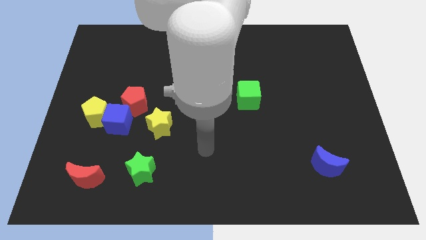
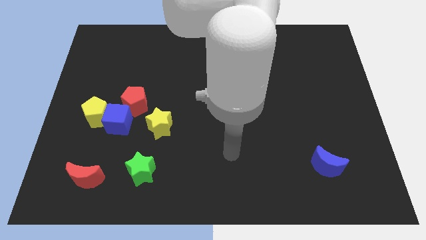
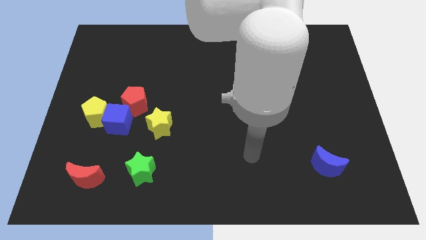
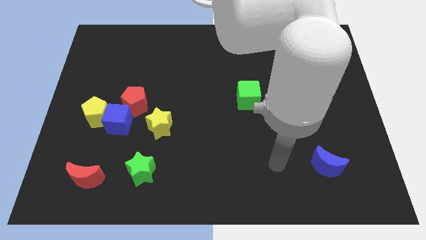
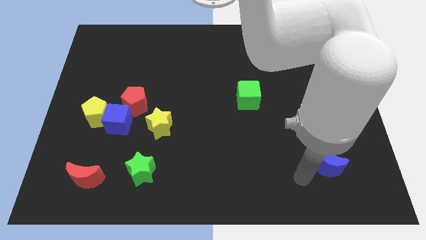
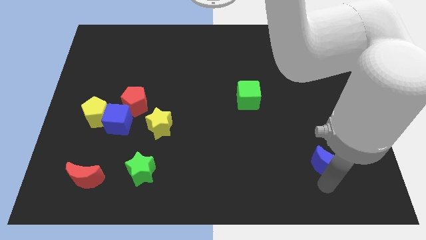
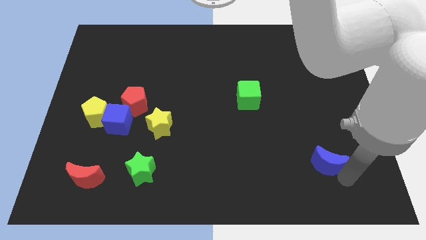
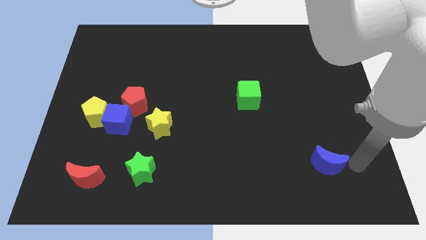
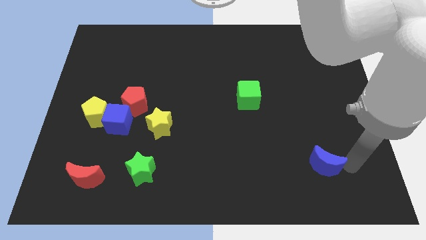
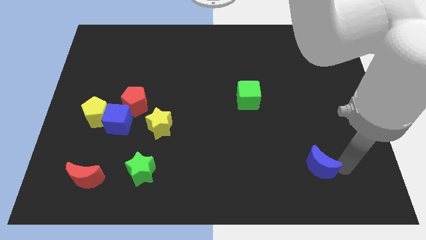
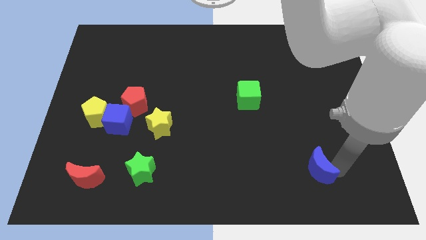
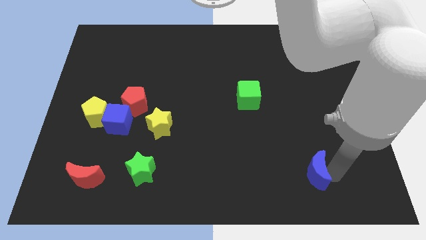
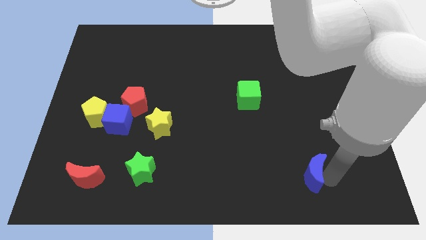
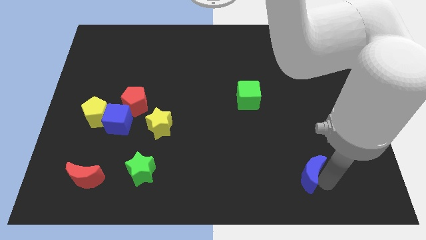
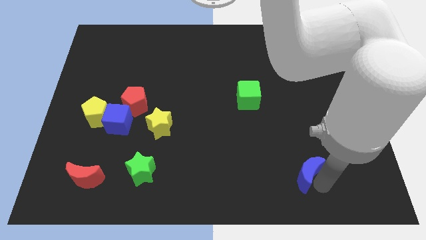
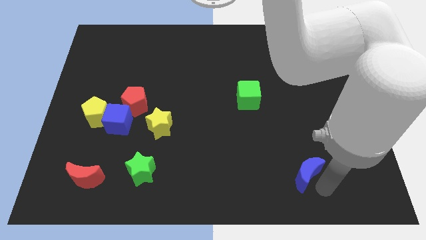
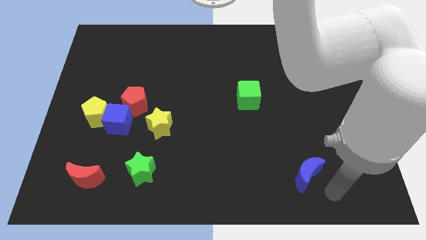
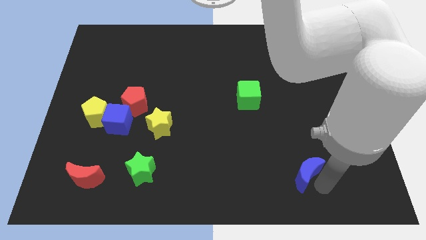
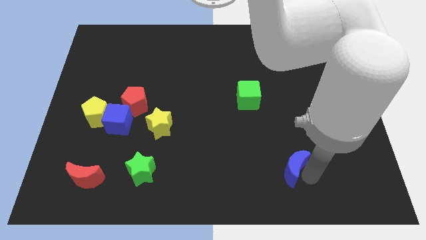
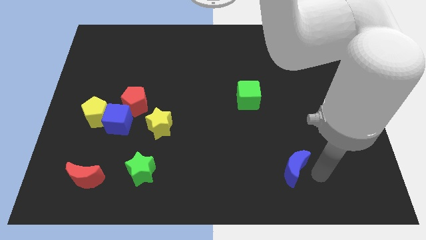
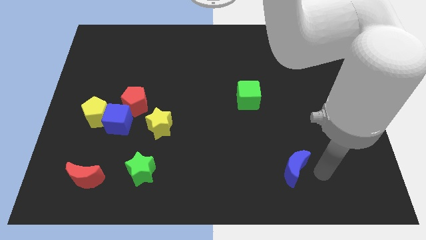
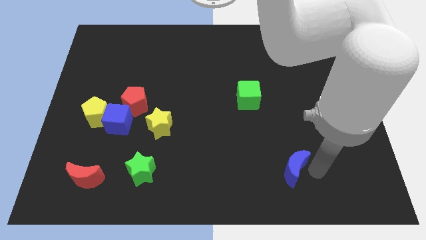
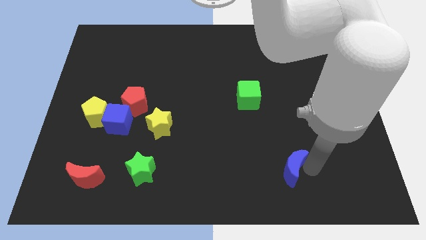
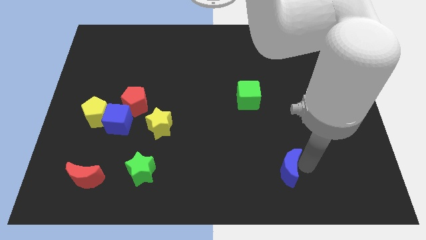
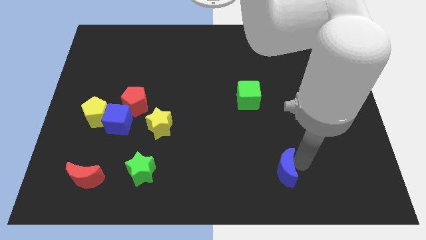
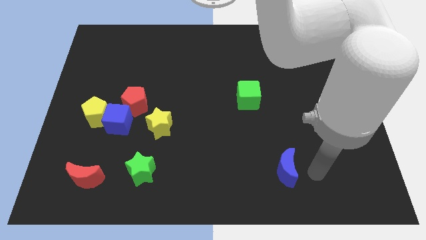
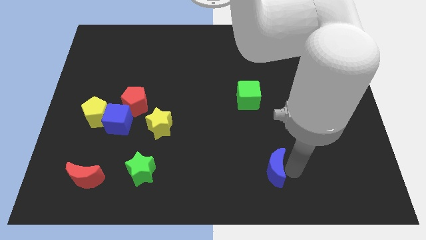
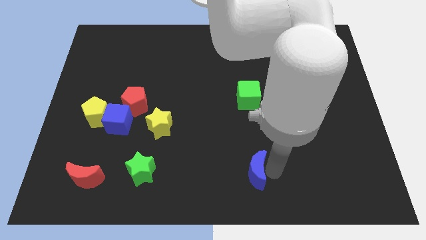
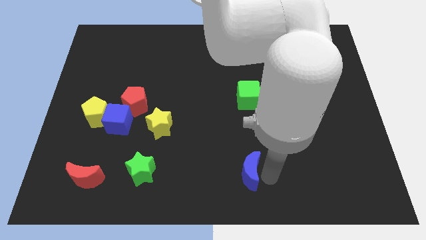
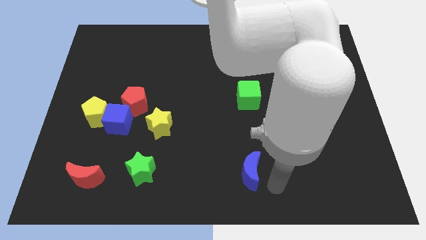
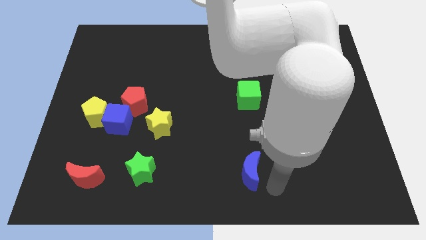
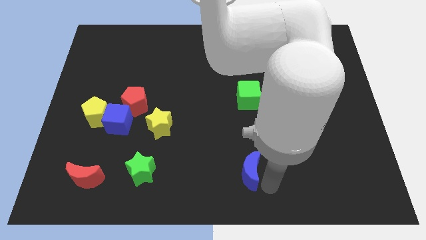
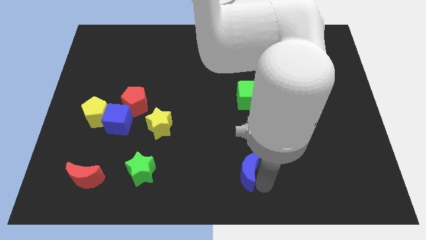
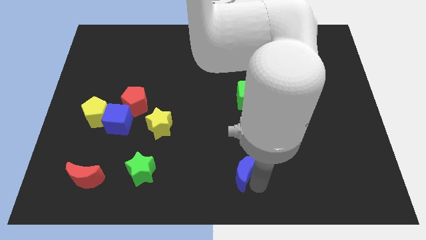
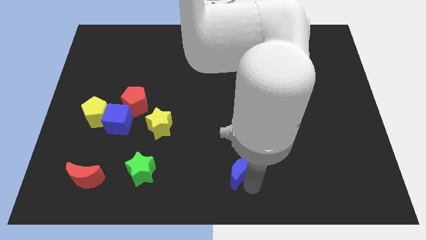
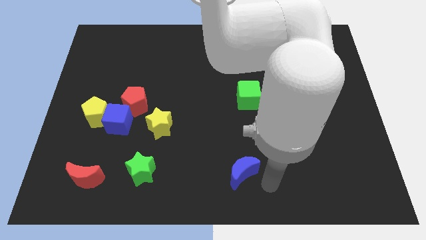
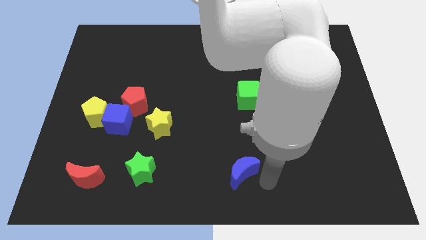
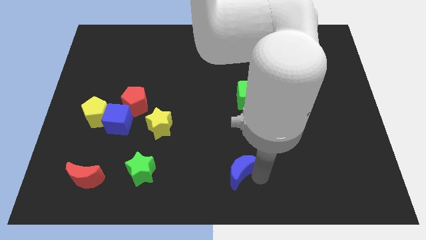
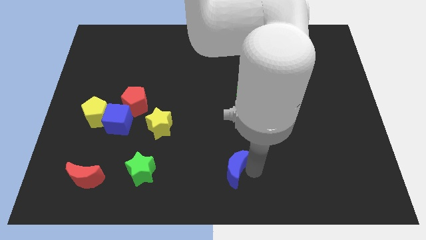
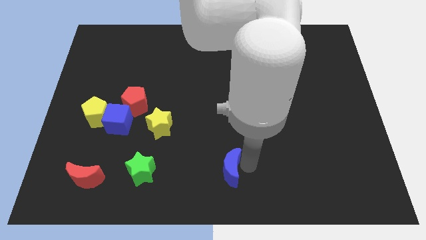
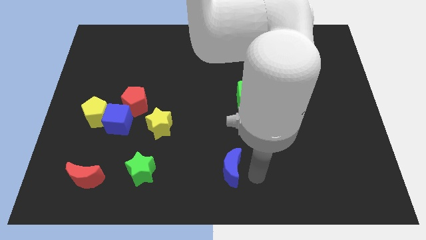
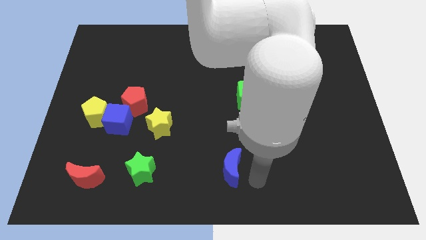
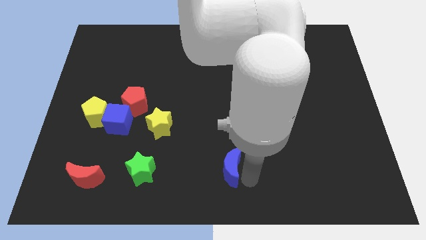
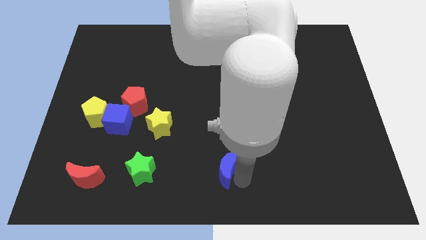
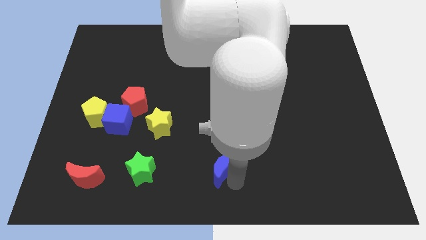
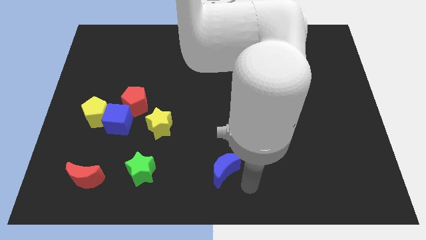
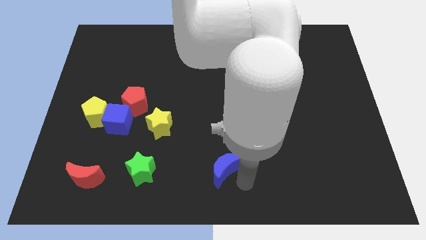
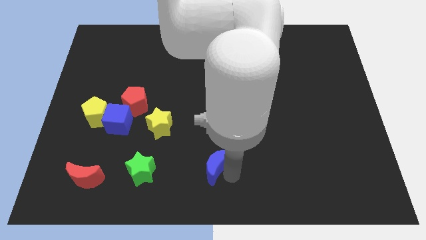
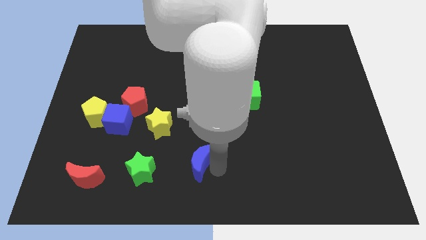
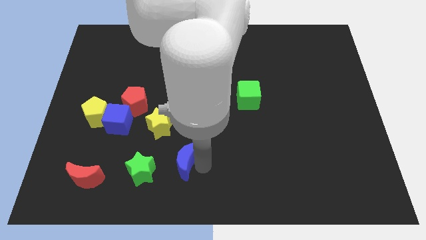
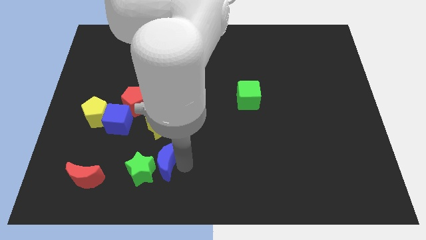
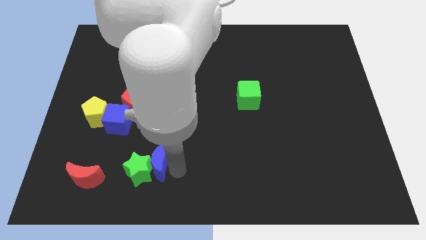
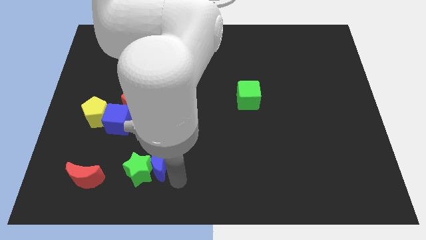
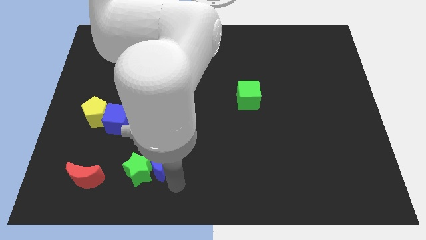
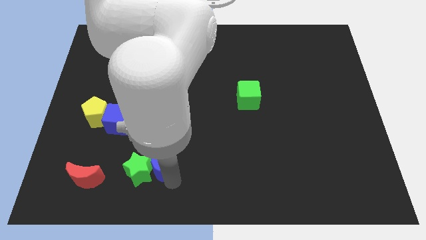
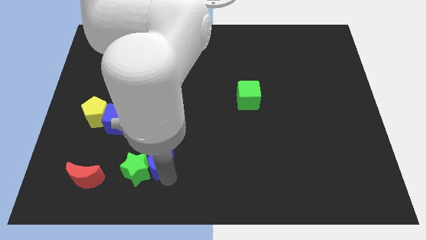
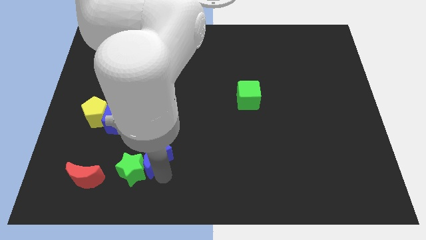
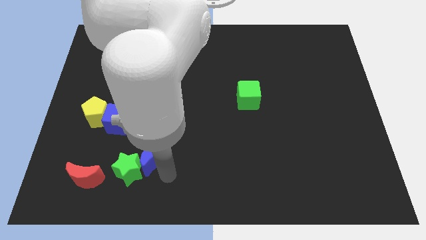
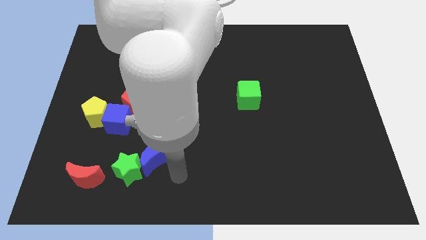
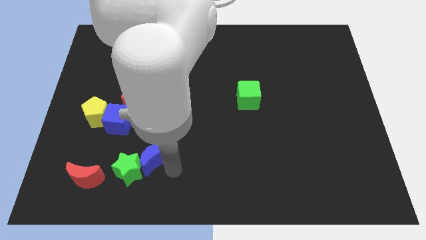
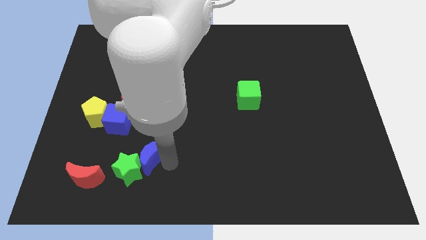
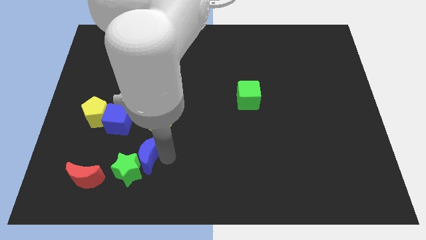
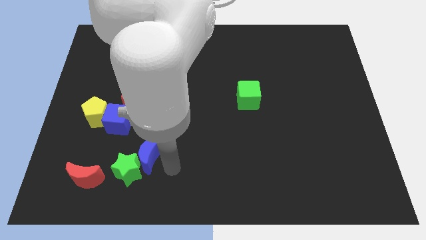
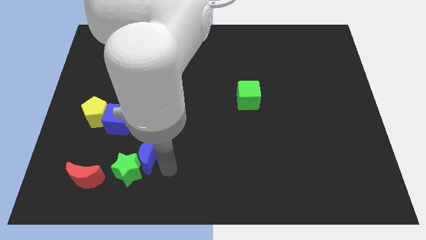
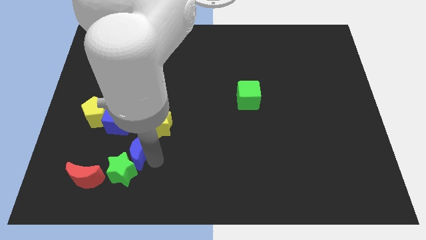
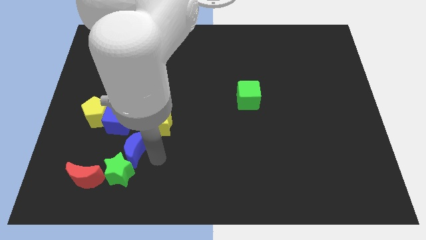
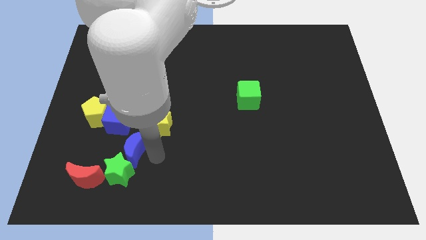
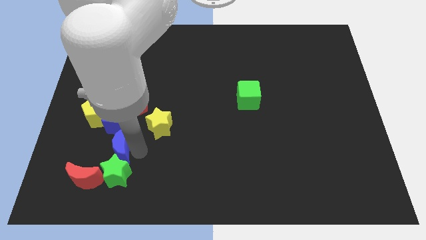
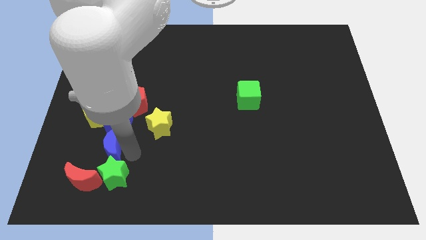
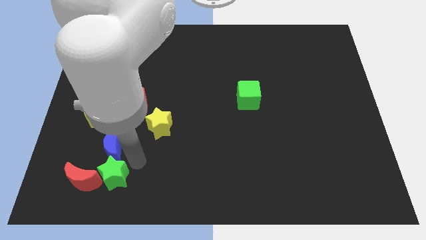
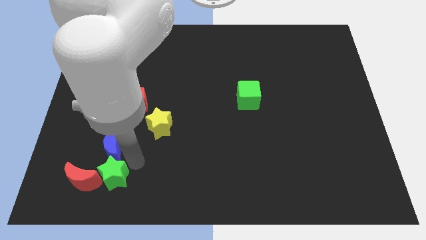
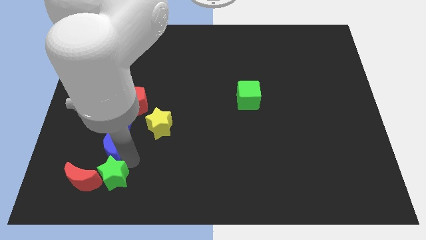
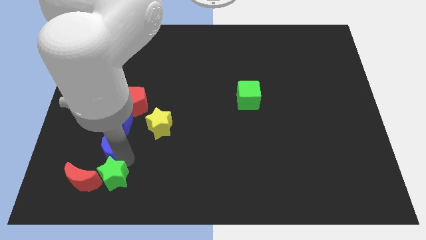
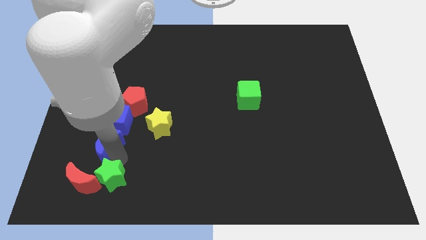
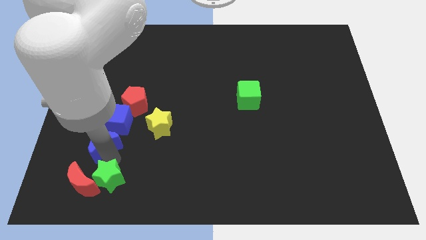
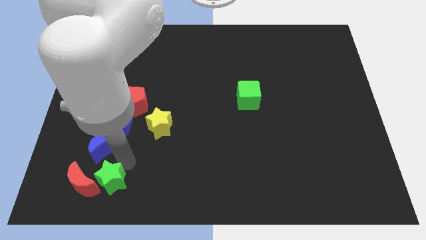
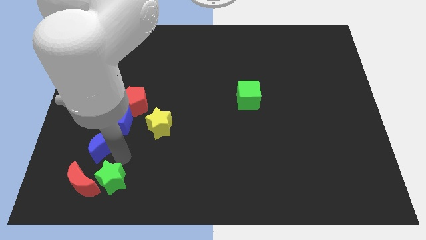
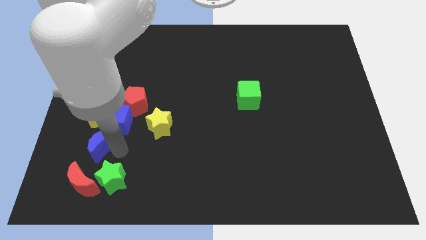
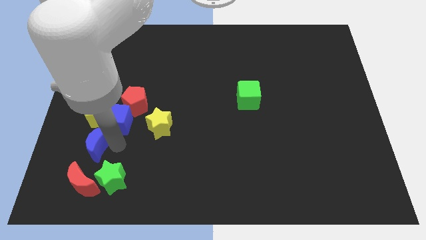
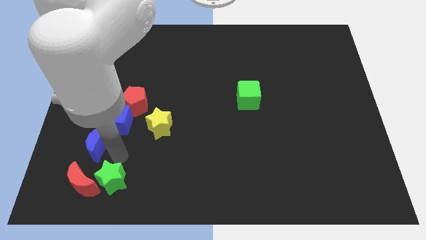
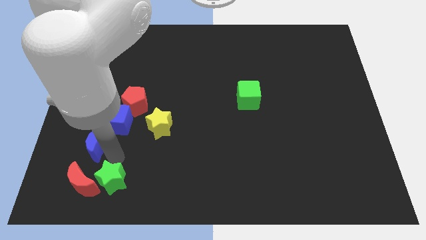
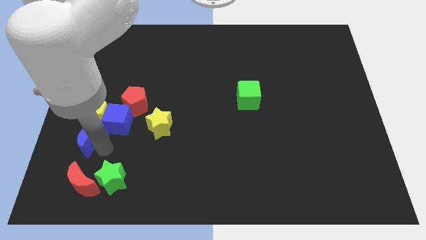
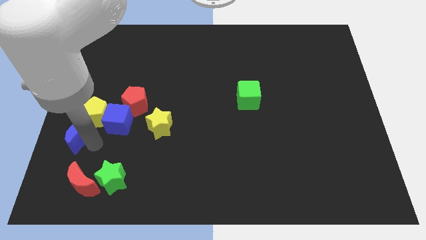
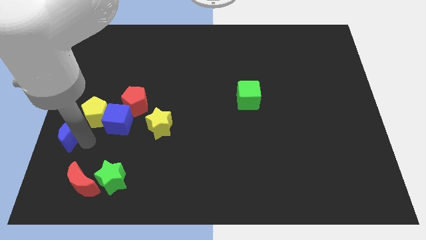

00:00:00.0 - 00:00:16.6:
slide the blue moon to the left side
